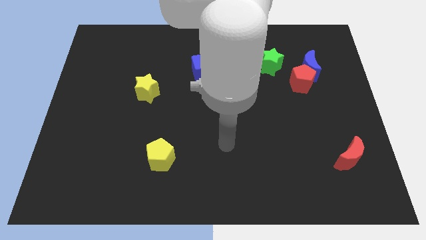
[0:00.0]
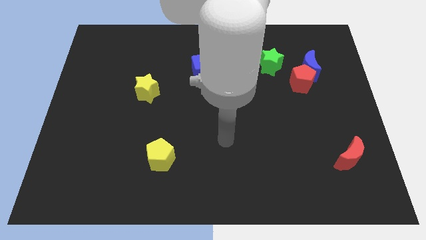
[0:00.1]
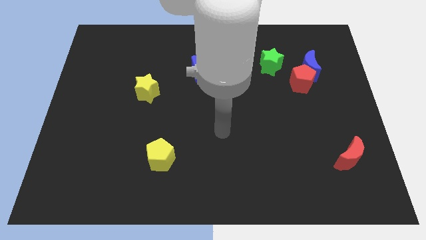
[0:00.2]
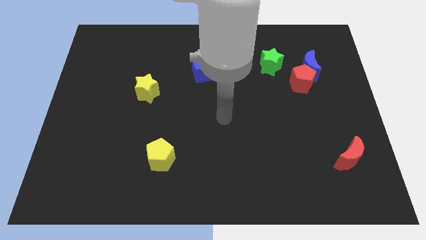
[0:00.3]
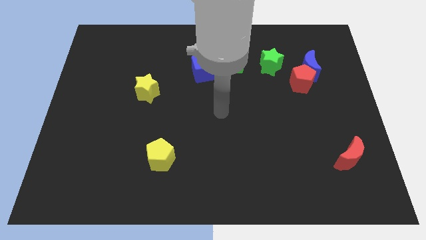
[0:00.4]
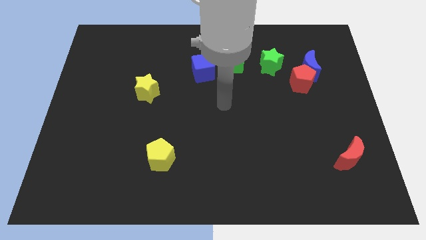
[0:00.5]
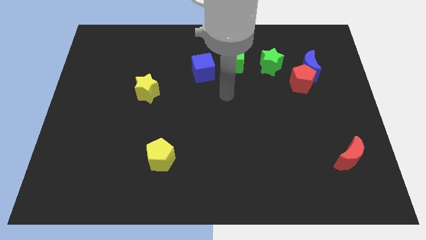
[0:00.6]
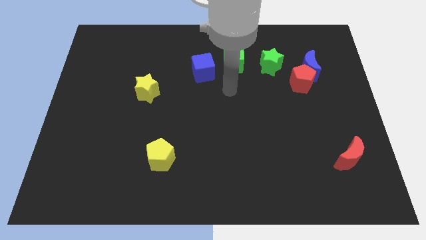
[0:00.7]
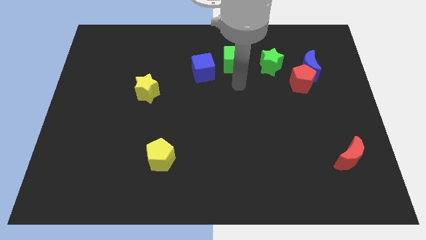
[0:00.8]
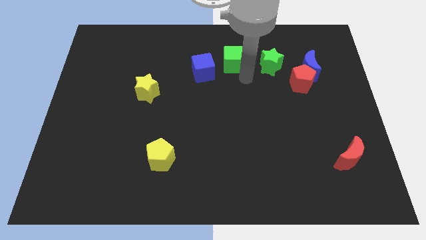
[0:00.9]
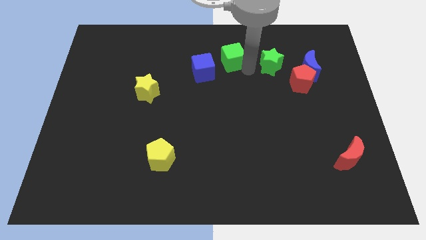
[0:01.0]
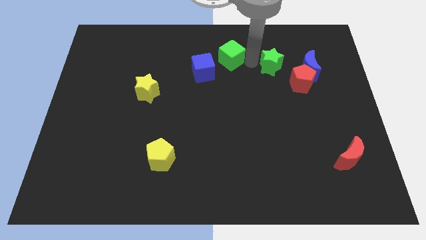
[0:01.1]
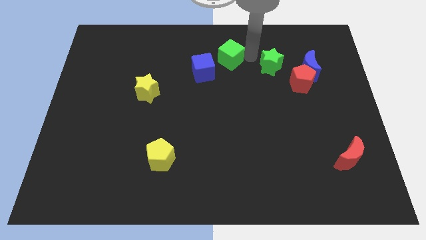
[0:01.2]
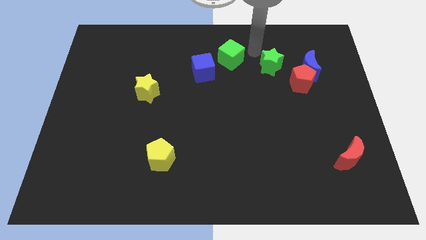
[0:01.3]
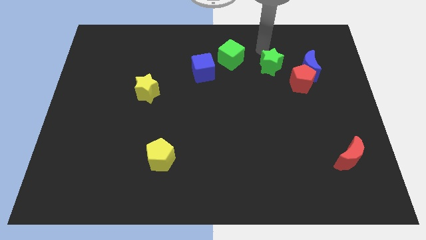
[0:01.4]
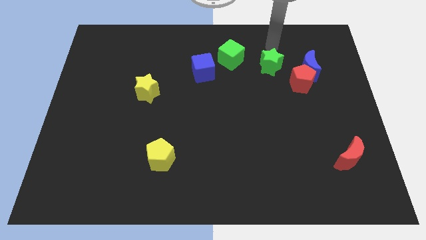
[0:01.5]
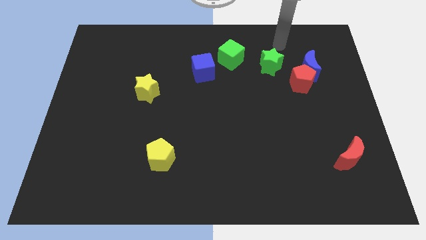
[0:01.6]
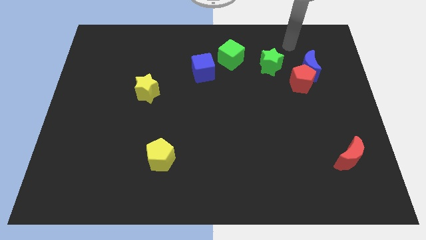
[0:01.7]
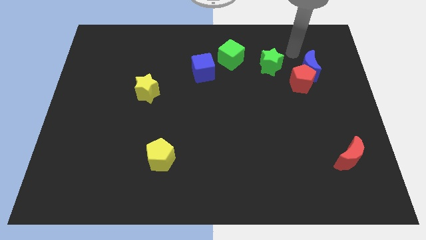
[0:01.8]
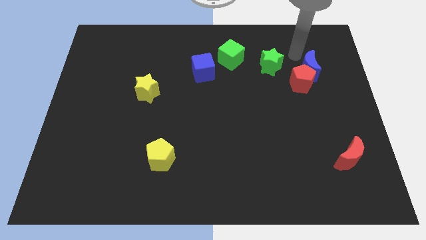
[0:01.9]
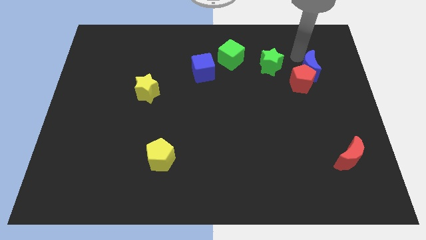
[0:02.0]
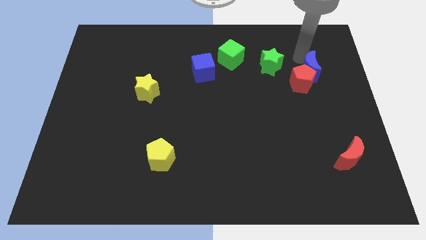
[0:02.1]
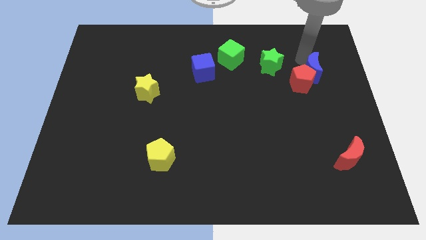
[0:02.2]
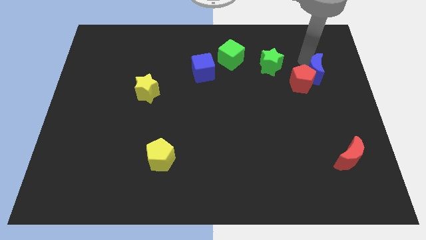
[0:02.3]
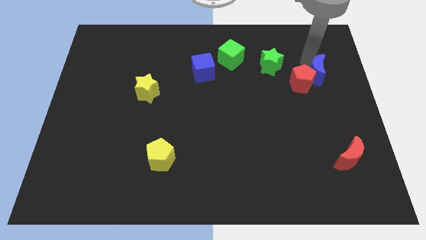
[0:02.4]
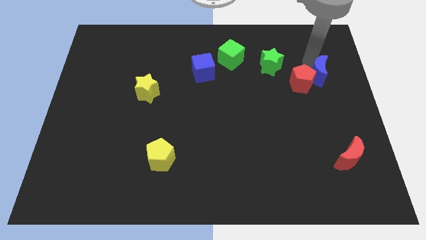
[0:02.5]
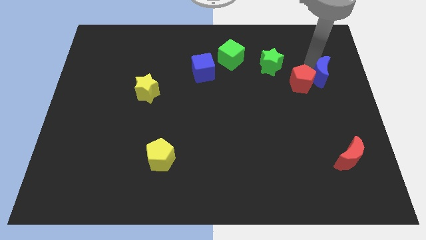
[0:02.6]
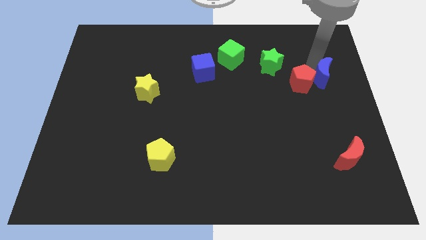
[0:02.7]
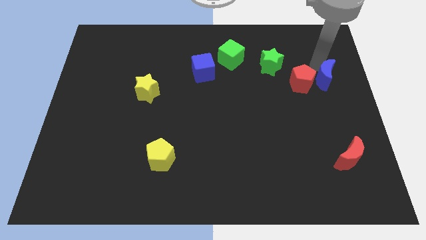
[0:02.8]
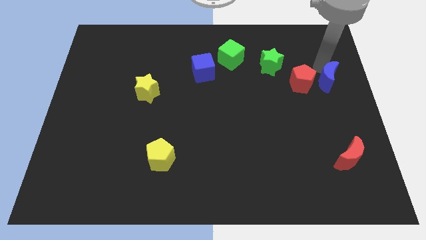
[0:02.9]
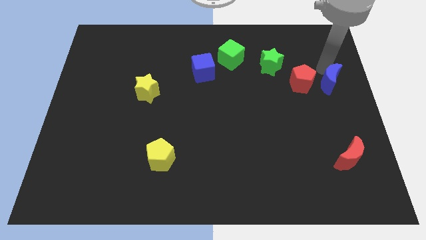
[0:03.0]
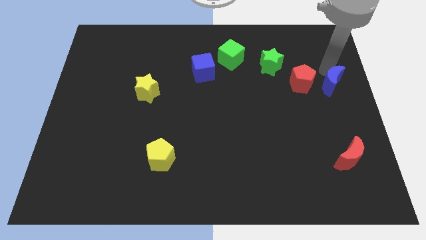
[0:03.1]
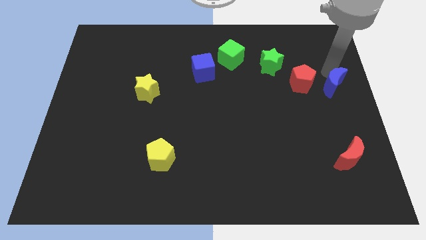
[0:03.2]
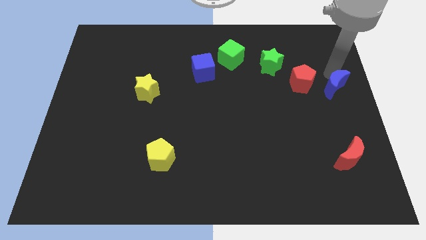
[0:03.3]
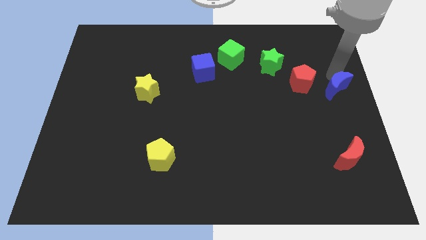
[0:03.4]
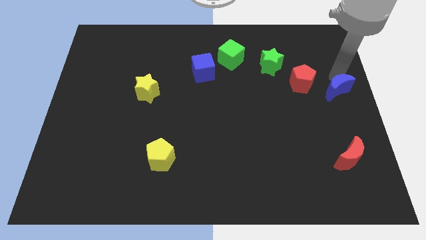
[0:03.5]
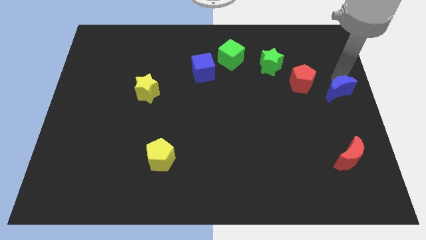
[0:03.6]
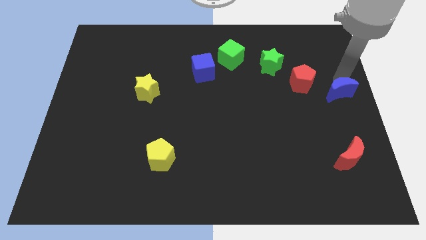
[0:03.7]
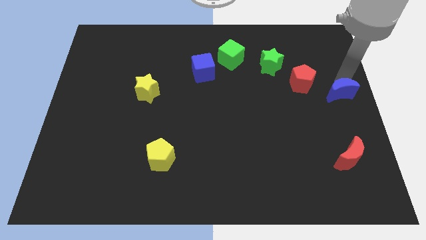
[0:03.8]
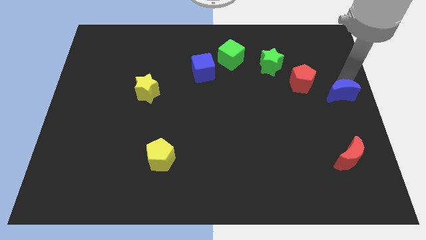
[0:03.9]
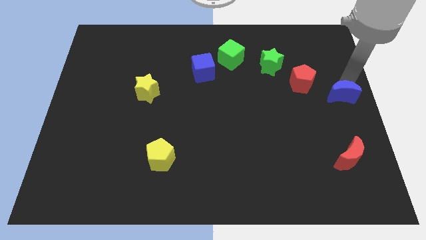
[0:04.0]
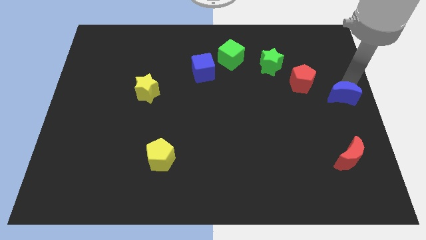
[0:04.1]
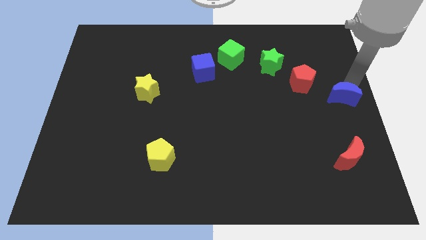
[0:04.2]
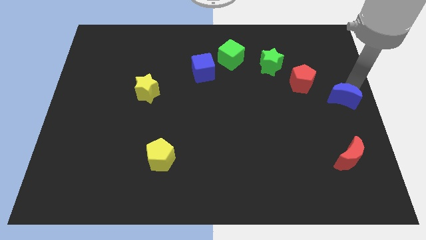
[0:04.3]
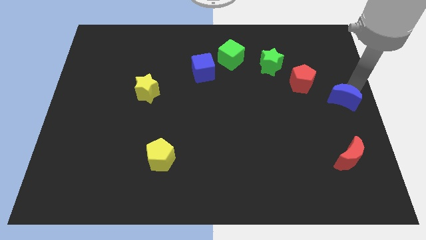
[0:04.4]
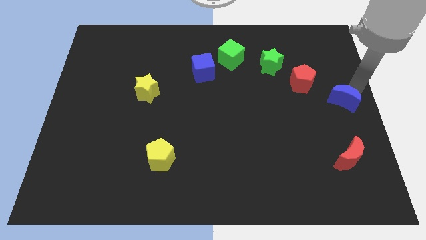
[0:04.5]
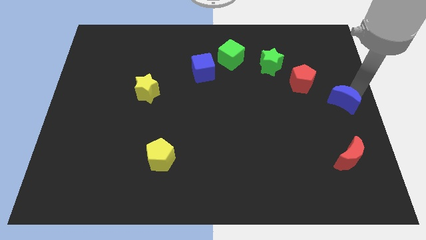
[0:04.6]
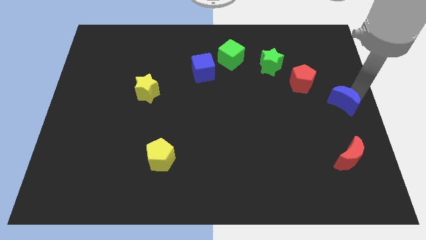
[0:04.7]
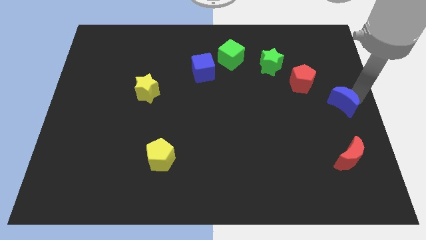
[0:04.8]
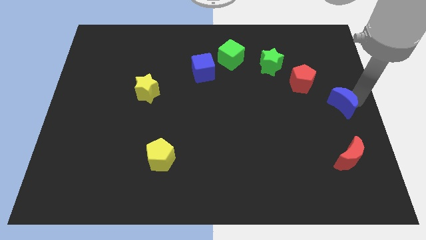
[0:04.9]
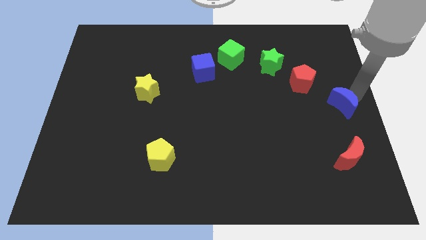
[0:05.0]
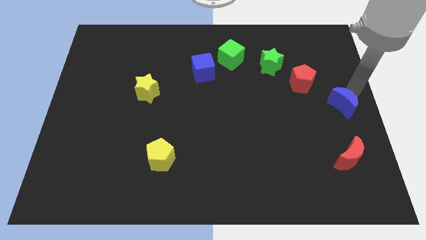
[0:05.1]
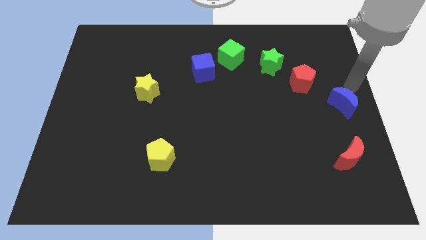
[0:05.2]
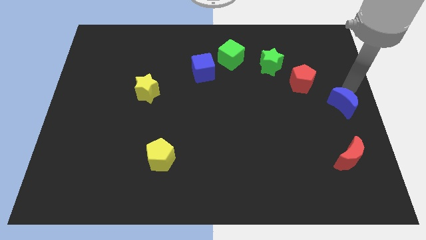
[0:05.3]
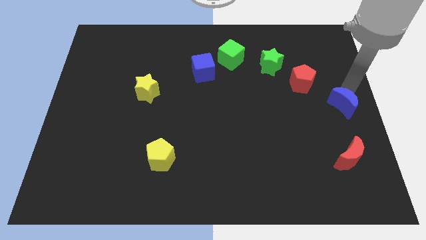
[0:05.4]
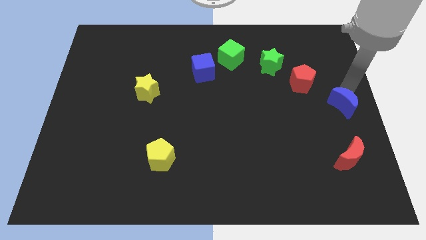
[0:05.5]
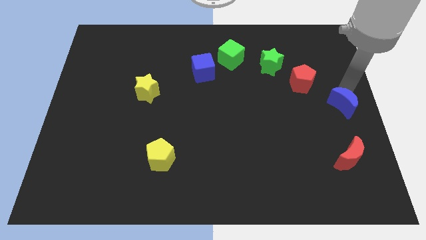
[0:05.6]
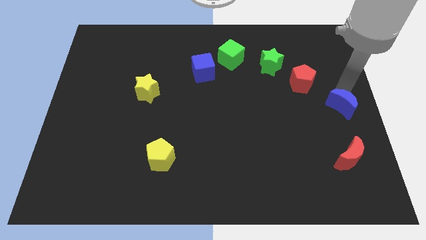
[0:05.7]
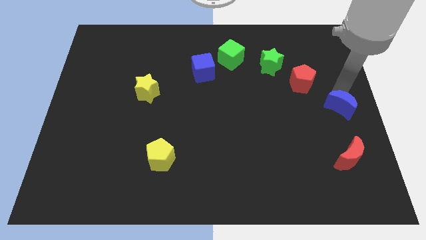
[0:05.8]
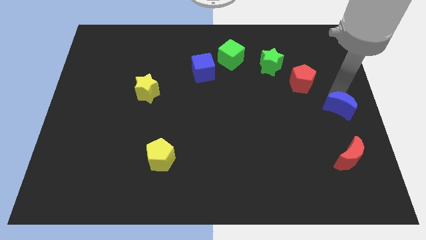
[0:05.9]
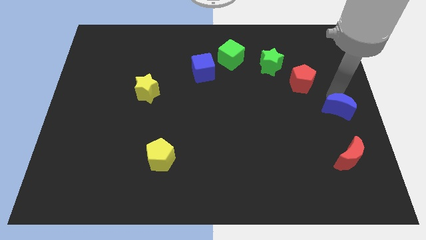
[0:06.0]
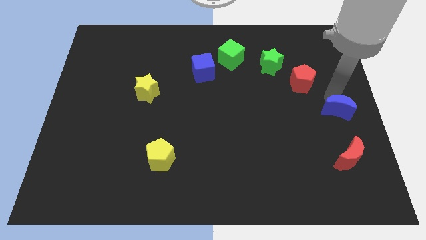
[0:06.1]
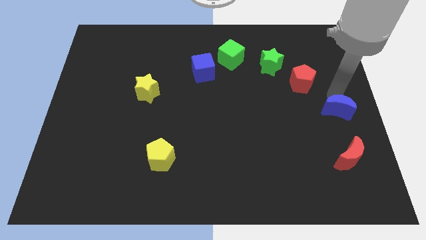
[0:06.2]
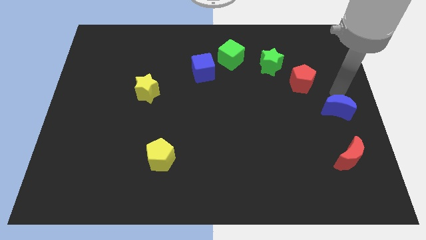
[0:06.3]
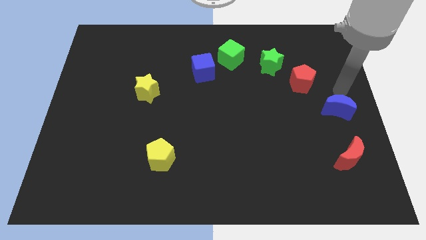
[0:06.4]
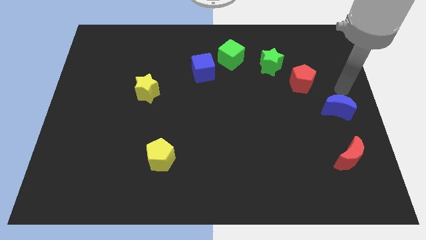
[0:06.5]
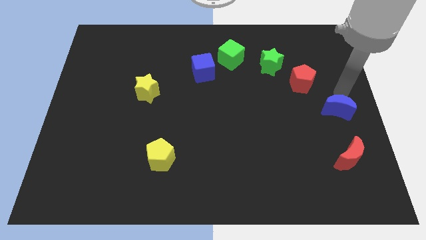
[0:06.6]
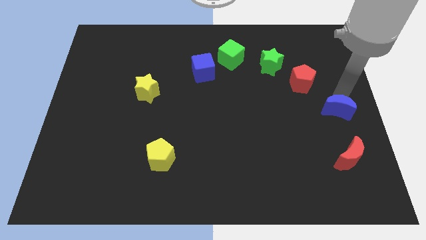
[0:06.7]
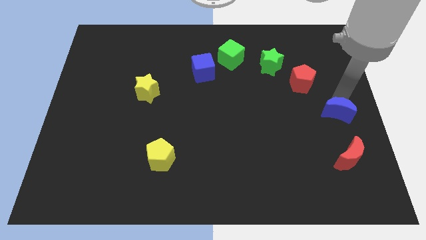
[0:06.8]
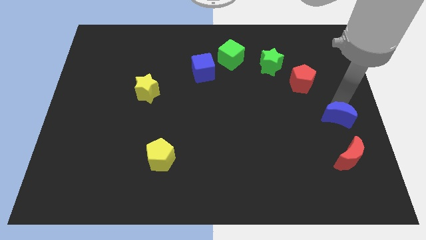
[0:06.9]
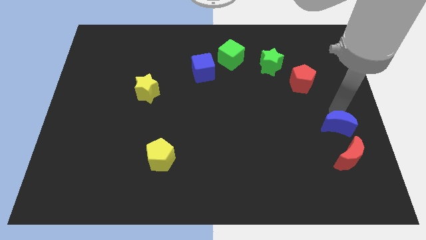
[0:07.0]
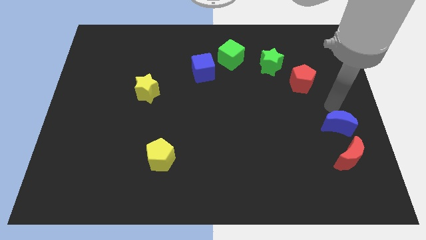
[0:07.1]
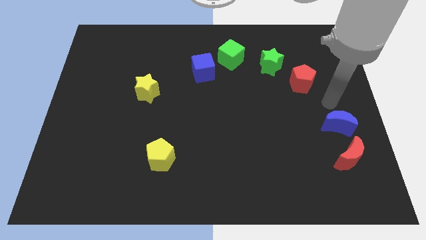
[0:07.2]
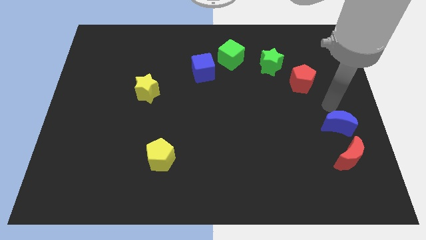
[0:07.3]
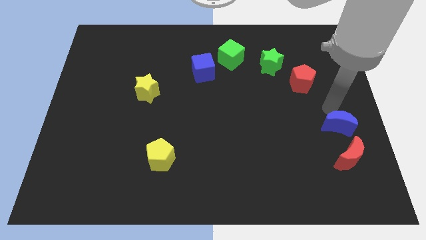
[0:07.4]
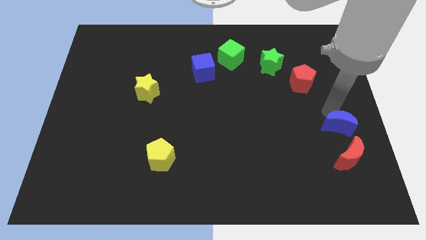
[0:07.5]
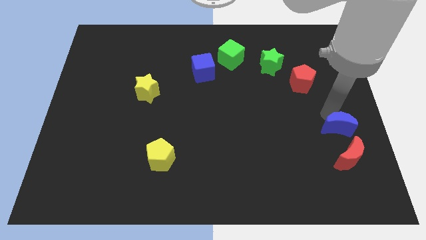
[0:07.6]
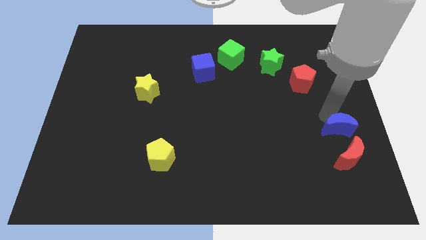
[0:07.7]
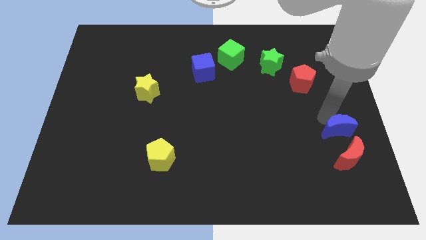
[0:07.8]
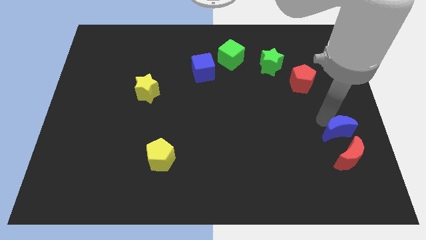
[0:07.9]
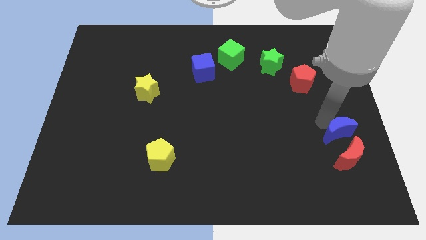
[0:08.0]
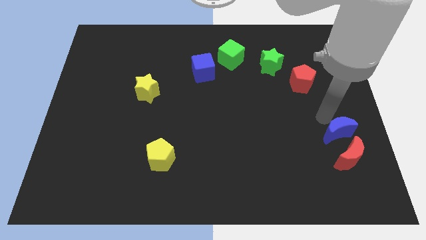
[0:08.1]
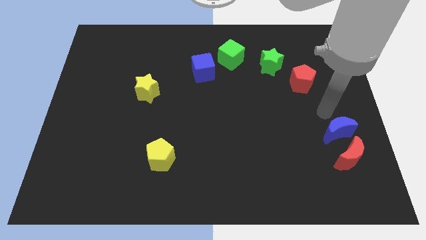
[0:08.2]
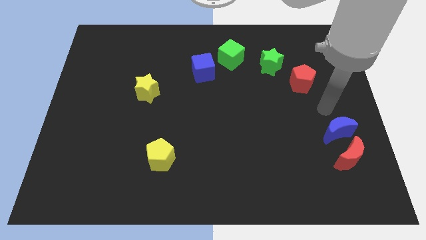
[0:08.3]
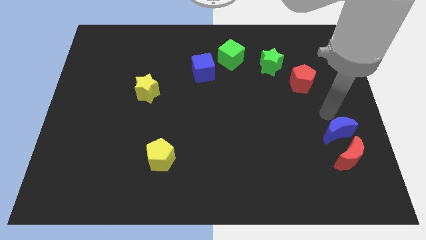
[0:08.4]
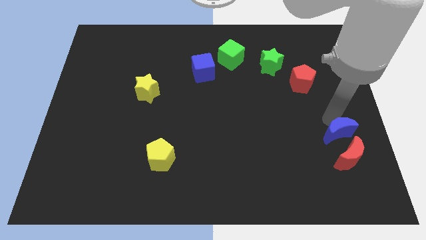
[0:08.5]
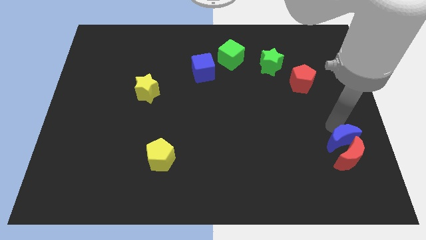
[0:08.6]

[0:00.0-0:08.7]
slide the blue moon towards the red moon
